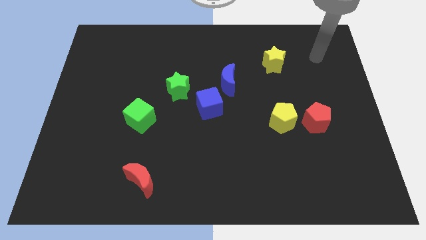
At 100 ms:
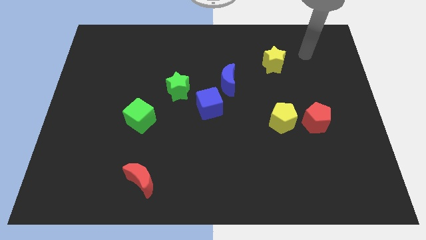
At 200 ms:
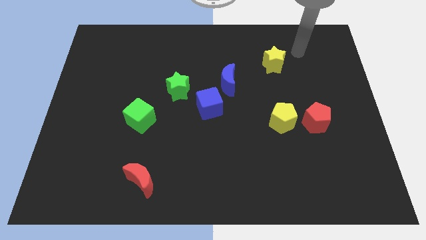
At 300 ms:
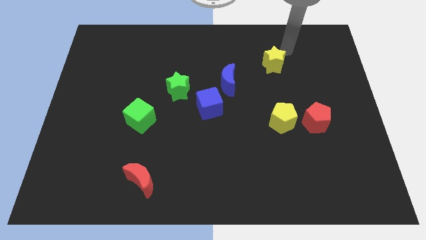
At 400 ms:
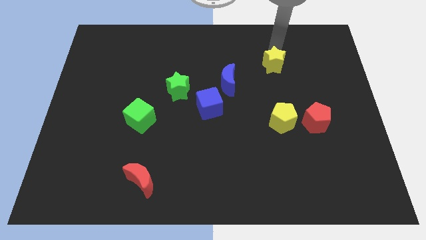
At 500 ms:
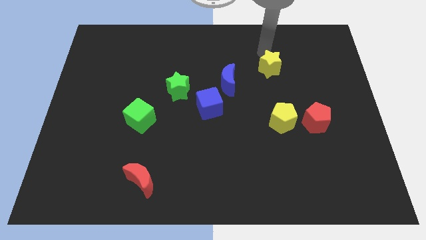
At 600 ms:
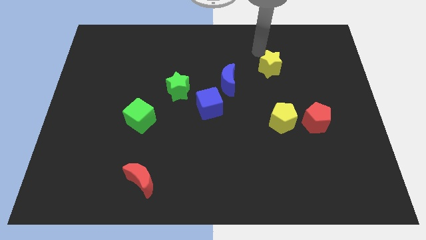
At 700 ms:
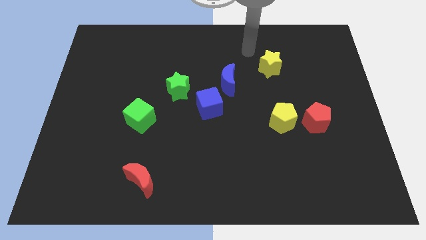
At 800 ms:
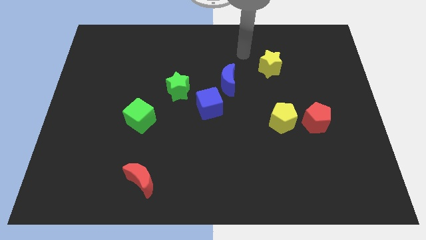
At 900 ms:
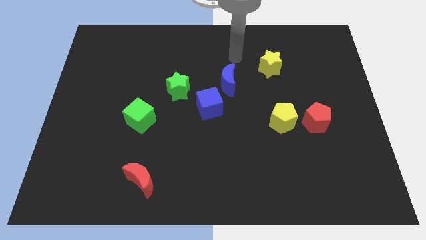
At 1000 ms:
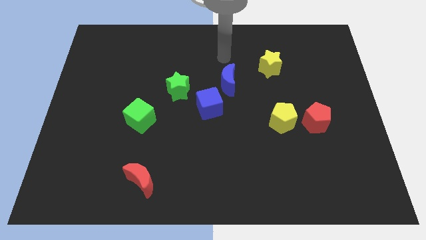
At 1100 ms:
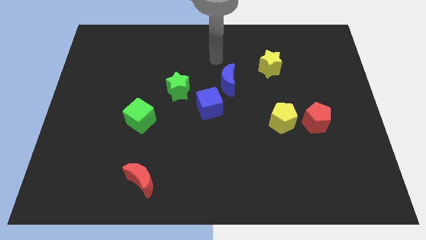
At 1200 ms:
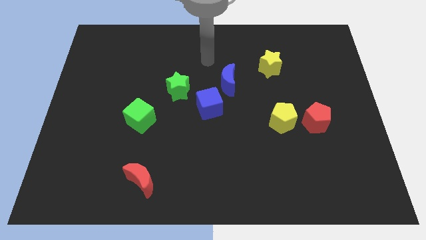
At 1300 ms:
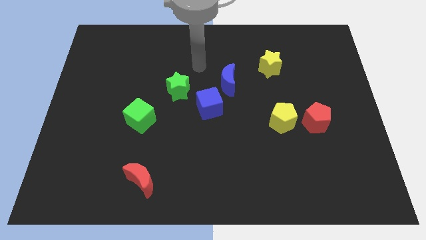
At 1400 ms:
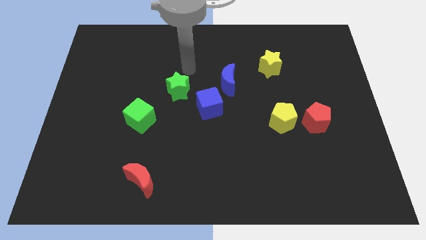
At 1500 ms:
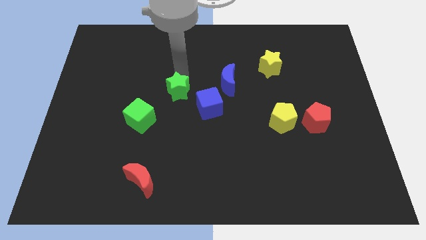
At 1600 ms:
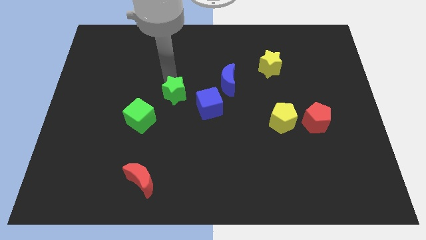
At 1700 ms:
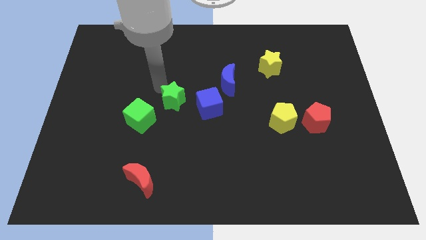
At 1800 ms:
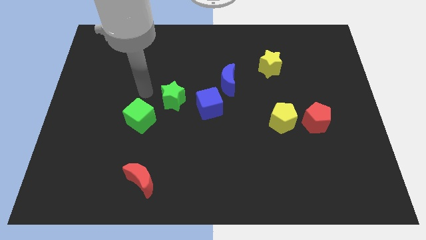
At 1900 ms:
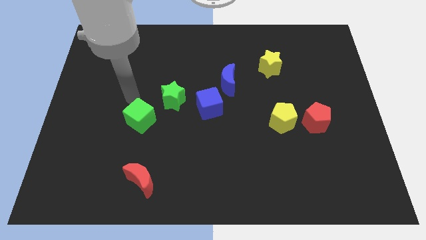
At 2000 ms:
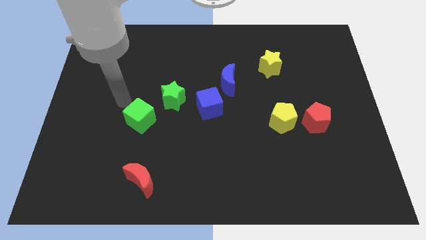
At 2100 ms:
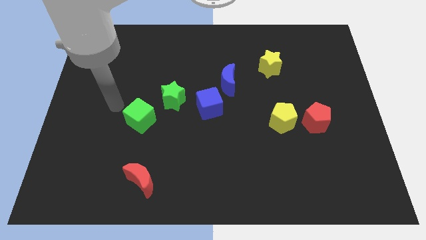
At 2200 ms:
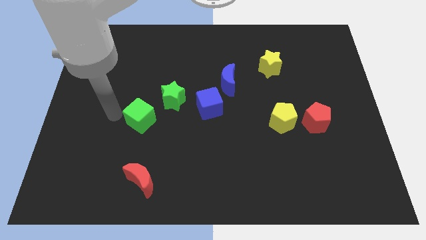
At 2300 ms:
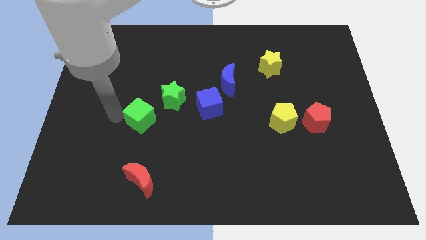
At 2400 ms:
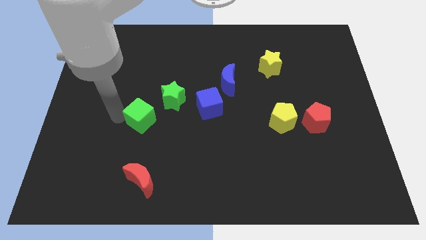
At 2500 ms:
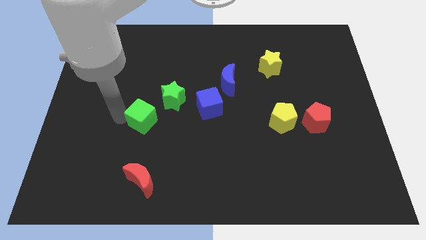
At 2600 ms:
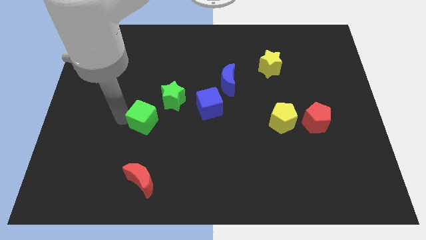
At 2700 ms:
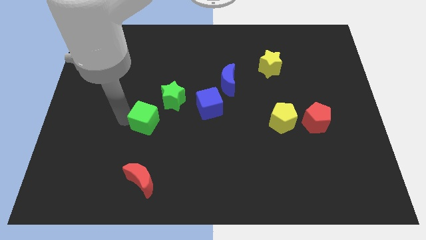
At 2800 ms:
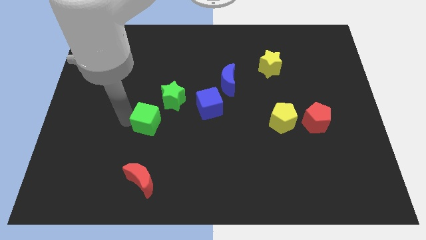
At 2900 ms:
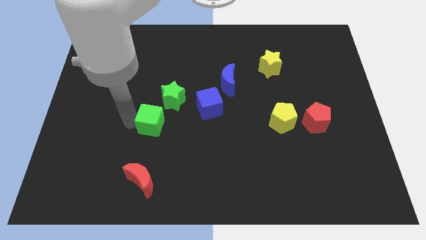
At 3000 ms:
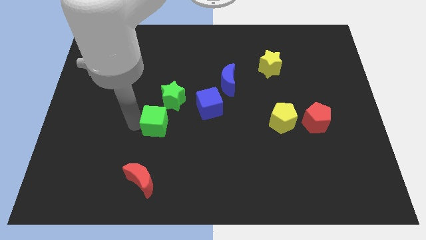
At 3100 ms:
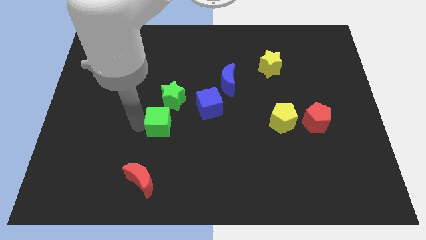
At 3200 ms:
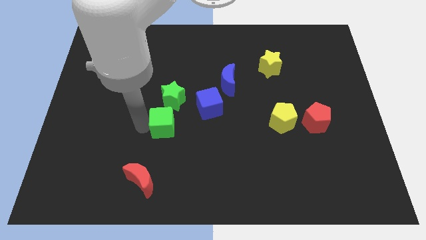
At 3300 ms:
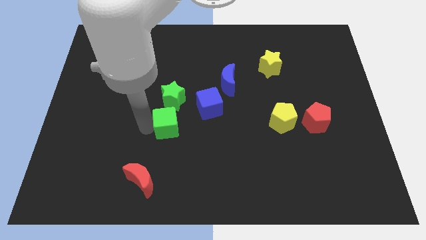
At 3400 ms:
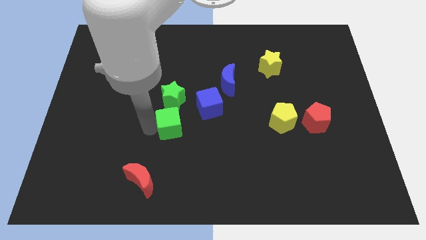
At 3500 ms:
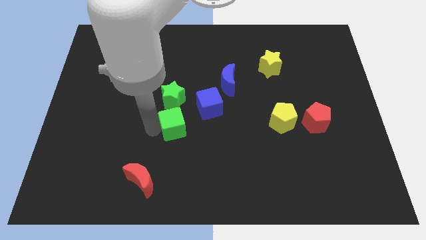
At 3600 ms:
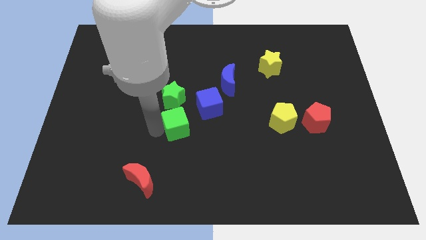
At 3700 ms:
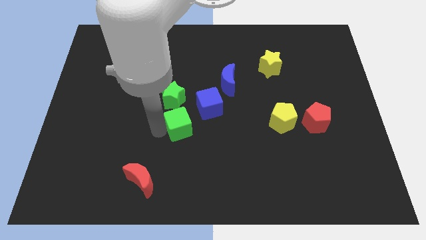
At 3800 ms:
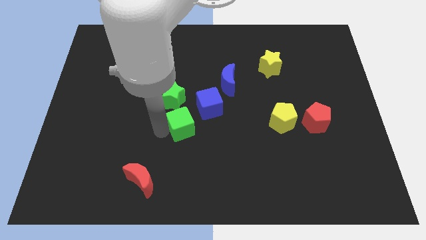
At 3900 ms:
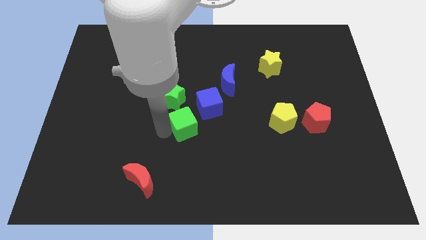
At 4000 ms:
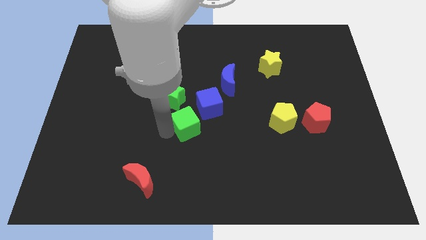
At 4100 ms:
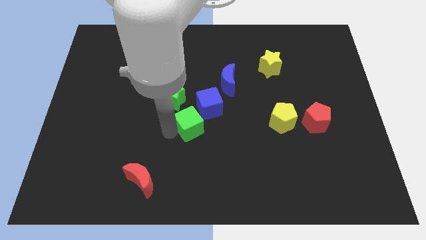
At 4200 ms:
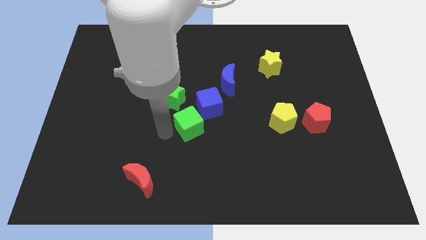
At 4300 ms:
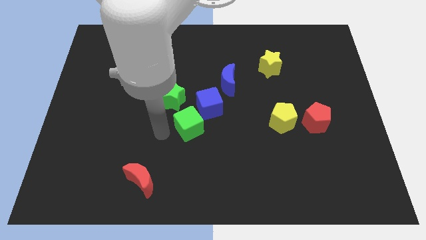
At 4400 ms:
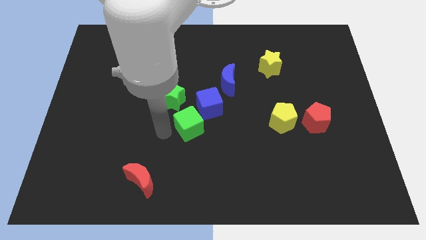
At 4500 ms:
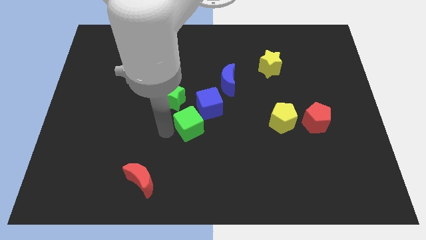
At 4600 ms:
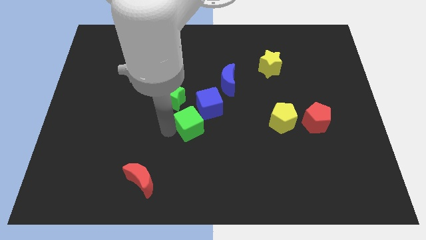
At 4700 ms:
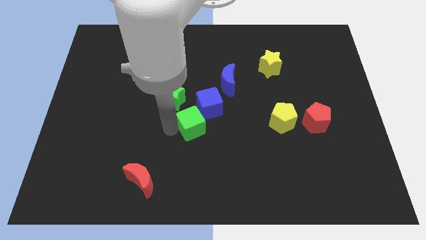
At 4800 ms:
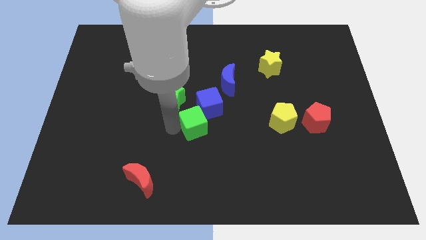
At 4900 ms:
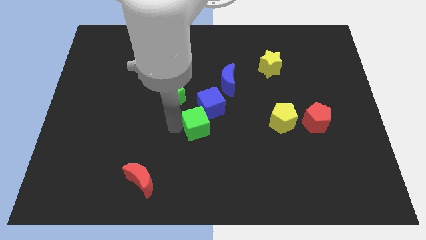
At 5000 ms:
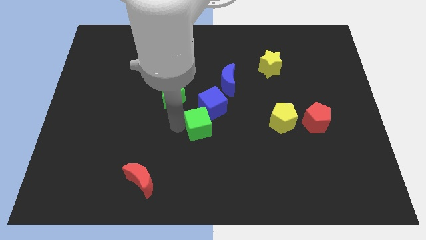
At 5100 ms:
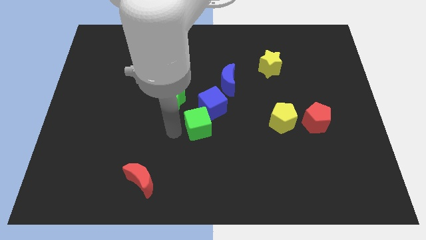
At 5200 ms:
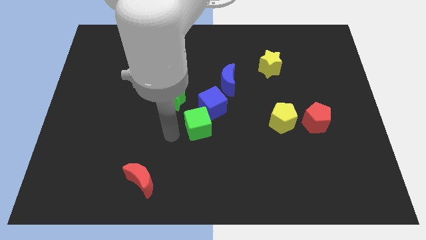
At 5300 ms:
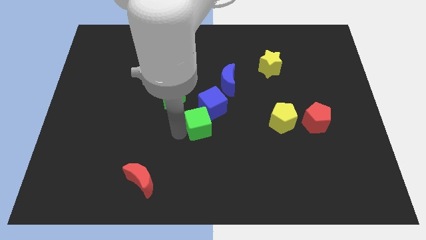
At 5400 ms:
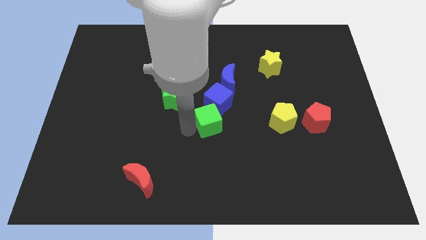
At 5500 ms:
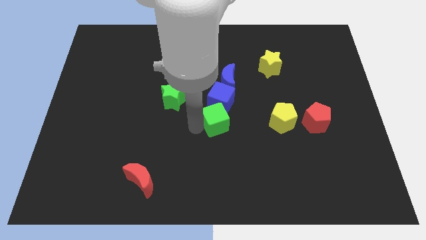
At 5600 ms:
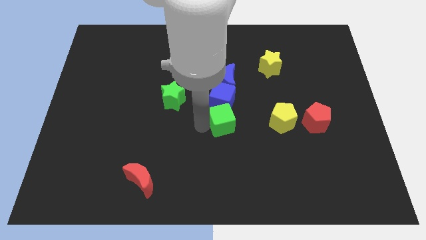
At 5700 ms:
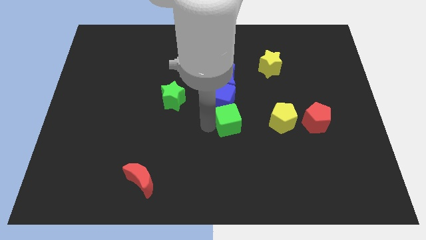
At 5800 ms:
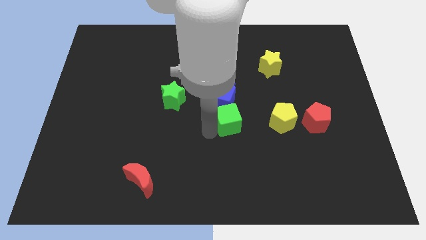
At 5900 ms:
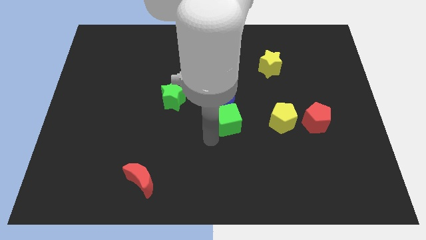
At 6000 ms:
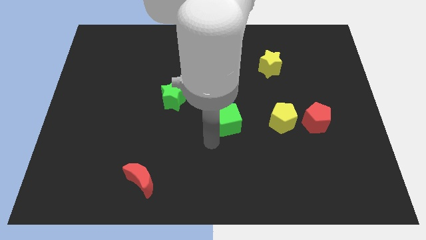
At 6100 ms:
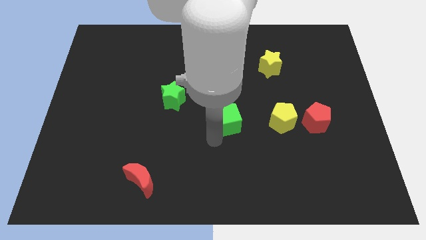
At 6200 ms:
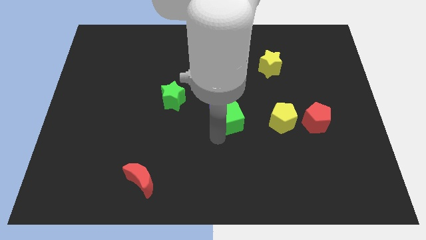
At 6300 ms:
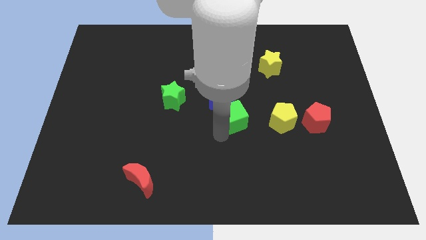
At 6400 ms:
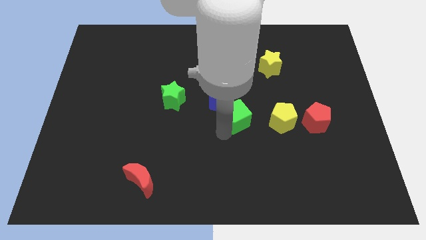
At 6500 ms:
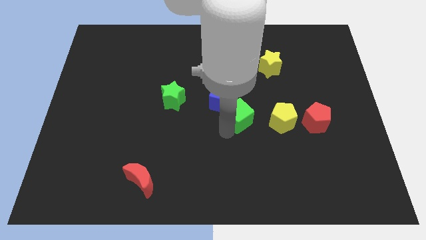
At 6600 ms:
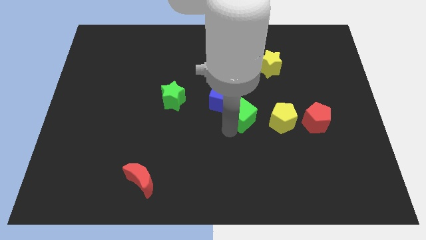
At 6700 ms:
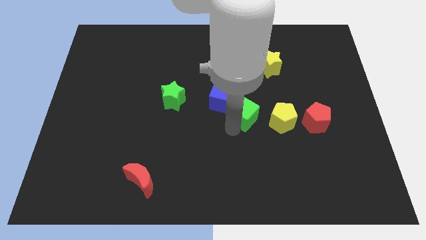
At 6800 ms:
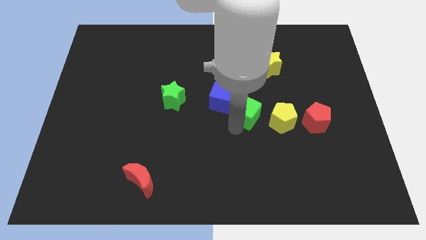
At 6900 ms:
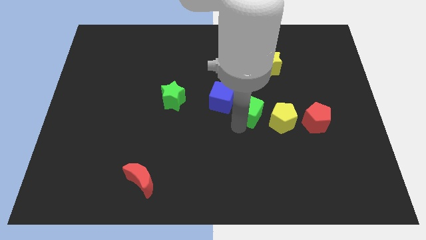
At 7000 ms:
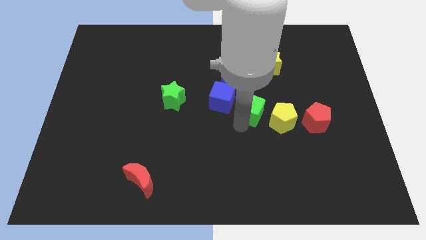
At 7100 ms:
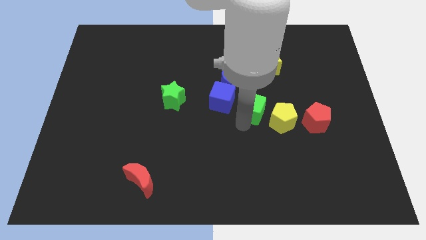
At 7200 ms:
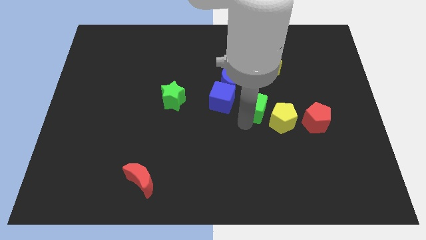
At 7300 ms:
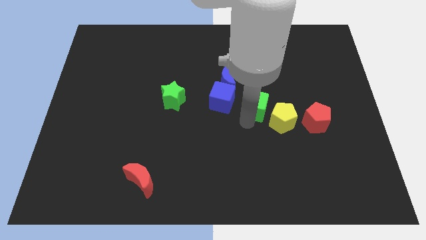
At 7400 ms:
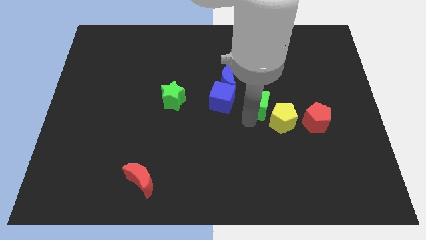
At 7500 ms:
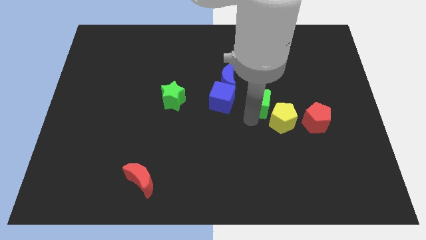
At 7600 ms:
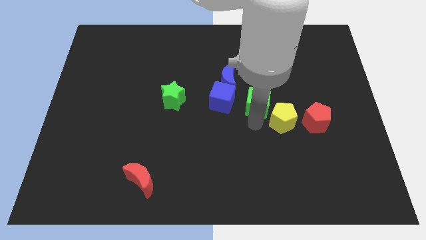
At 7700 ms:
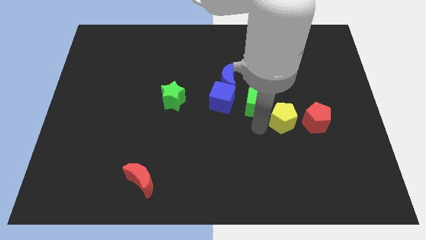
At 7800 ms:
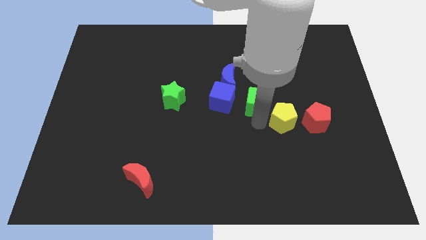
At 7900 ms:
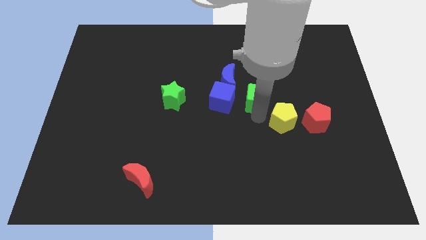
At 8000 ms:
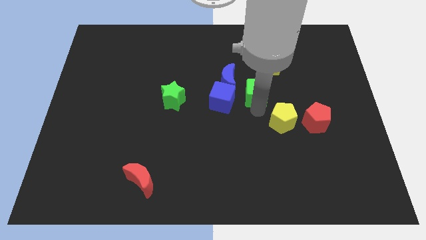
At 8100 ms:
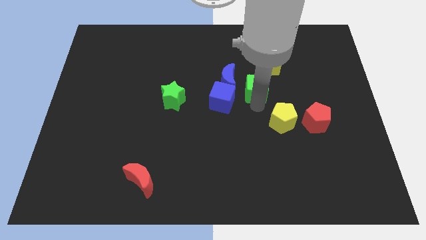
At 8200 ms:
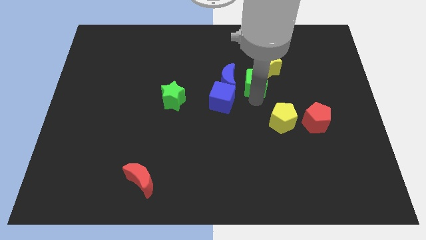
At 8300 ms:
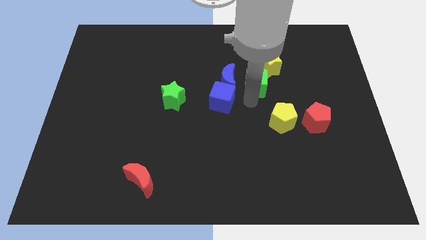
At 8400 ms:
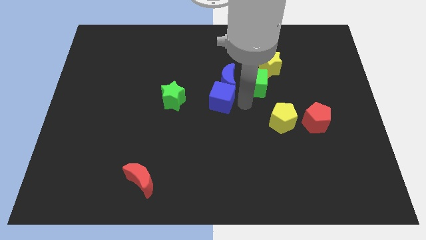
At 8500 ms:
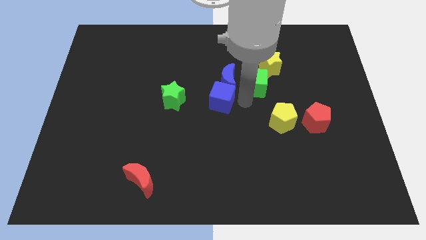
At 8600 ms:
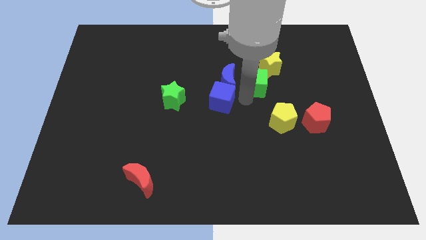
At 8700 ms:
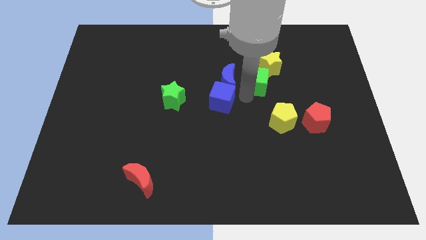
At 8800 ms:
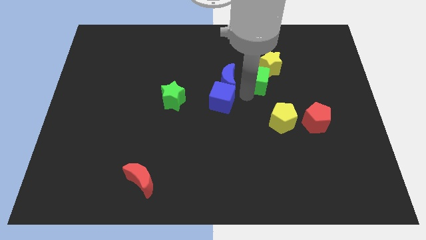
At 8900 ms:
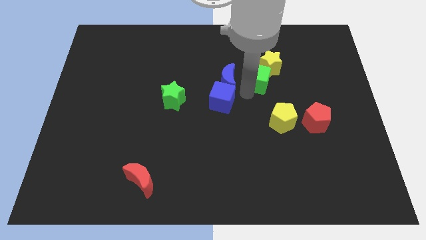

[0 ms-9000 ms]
push the green cube to the yellow star
